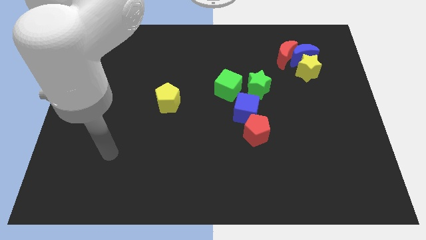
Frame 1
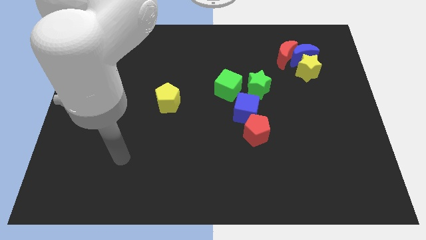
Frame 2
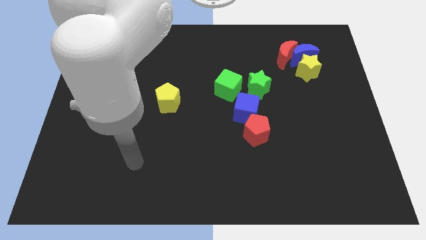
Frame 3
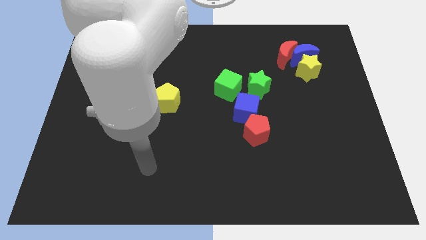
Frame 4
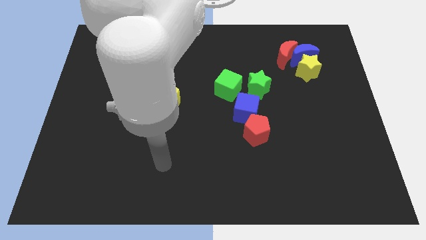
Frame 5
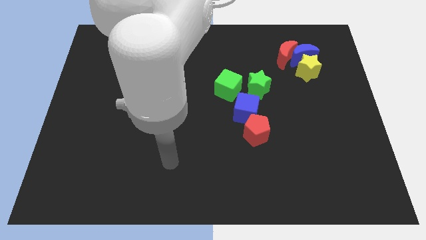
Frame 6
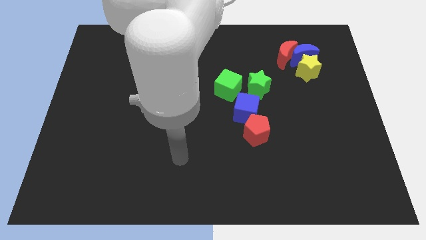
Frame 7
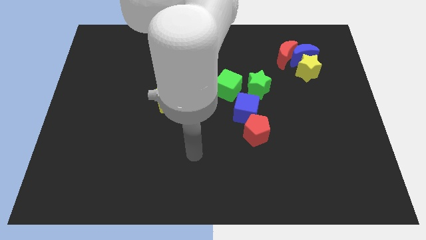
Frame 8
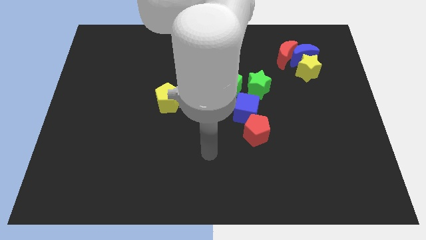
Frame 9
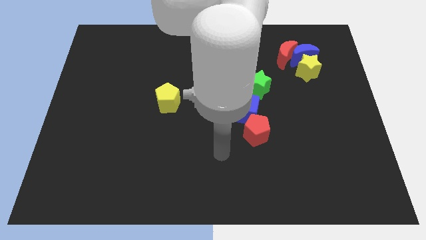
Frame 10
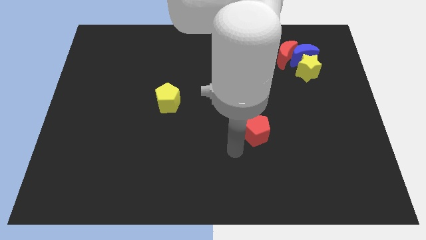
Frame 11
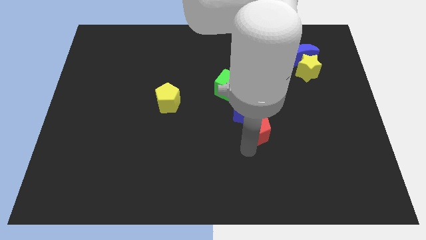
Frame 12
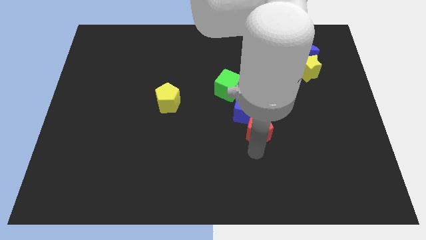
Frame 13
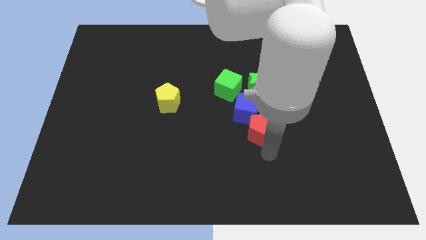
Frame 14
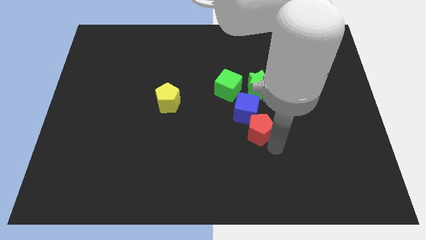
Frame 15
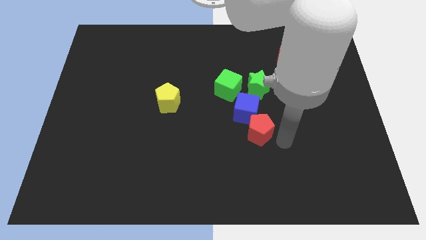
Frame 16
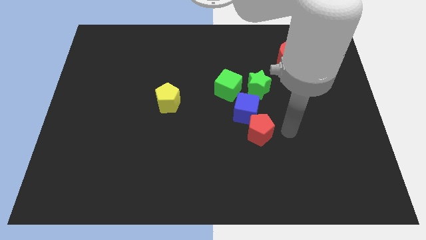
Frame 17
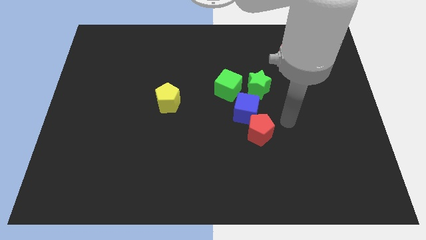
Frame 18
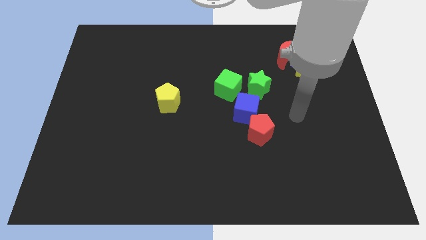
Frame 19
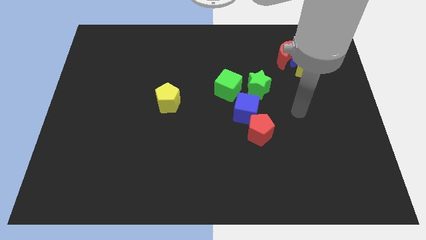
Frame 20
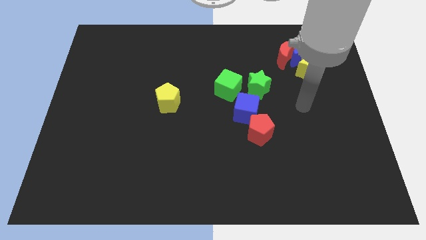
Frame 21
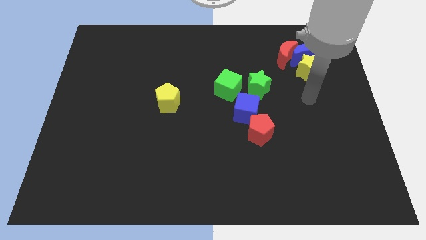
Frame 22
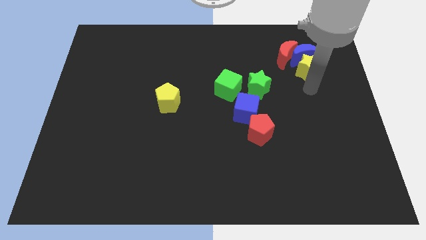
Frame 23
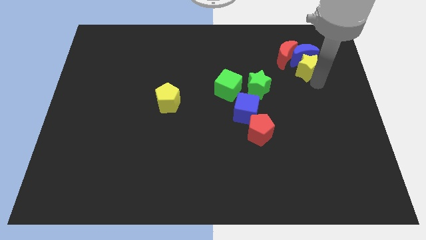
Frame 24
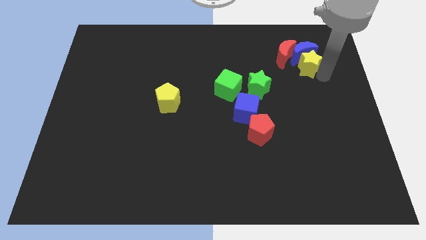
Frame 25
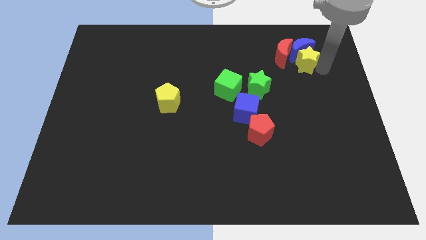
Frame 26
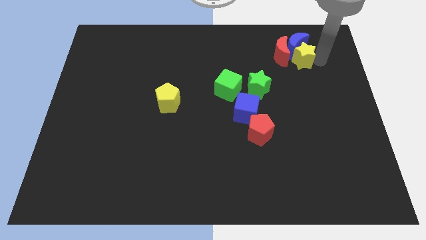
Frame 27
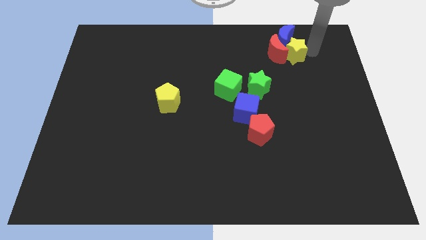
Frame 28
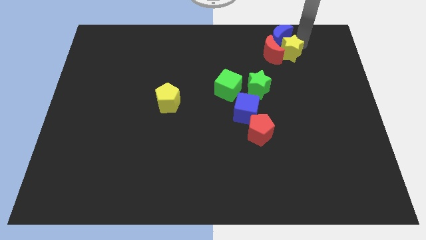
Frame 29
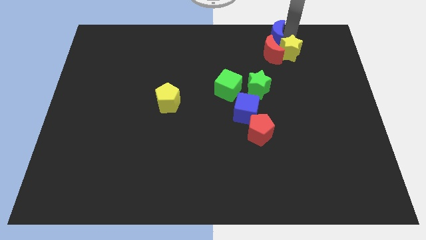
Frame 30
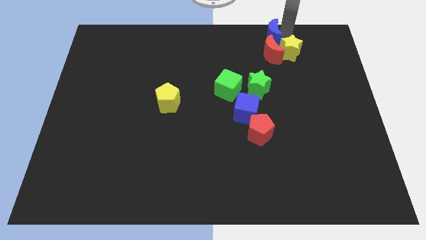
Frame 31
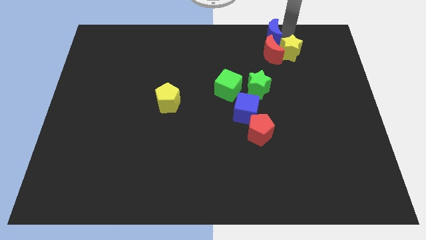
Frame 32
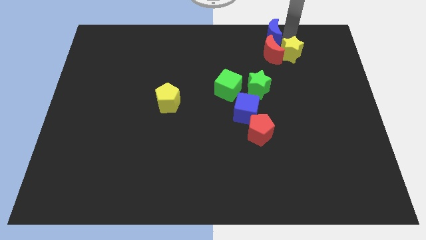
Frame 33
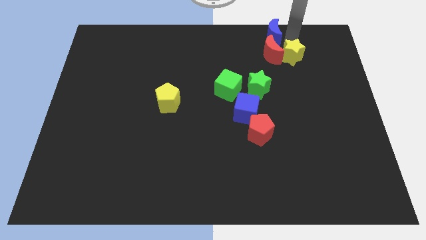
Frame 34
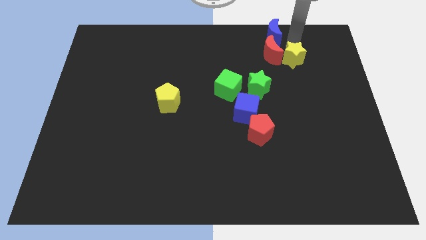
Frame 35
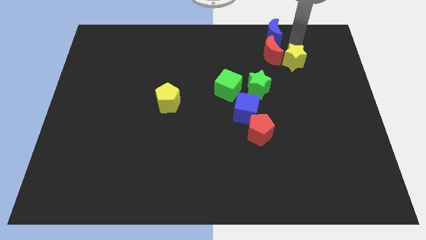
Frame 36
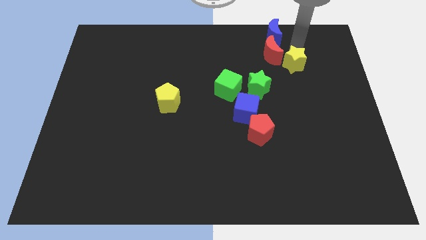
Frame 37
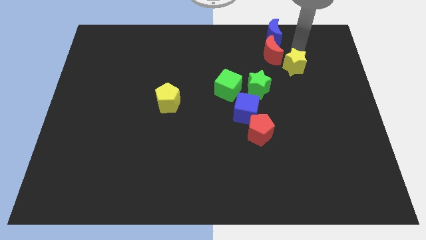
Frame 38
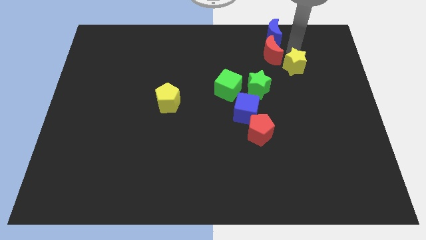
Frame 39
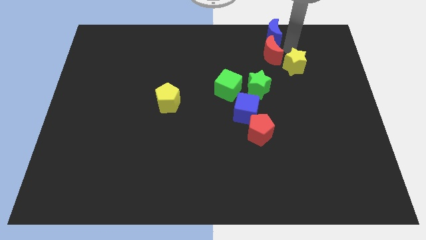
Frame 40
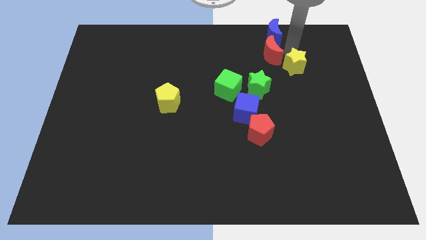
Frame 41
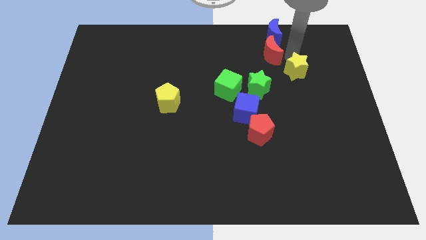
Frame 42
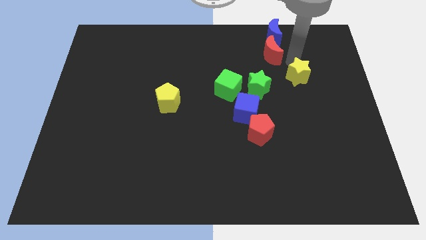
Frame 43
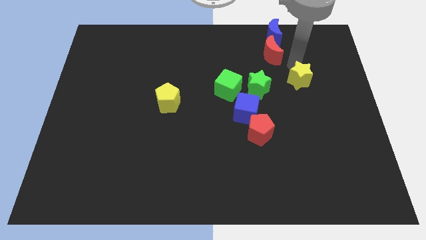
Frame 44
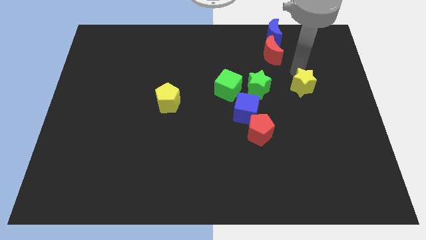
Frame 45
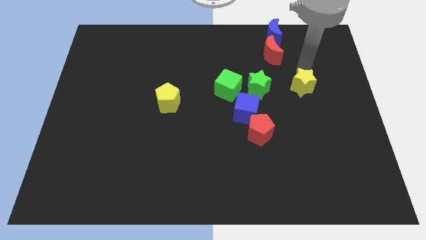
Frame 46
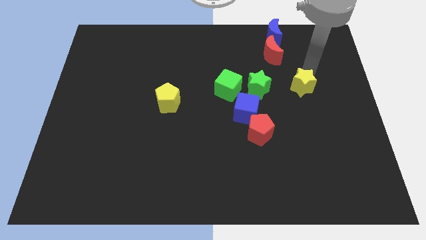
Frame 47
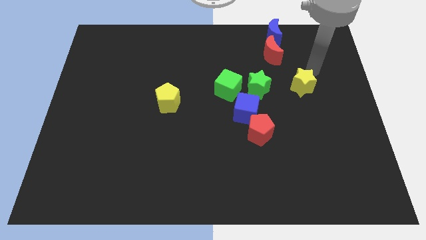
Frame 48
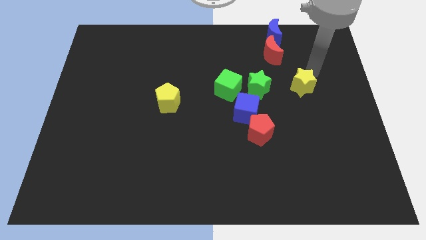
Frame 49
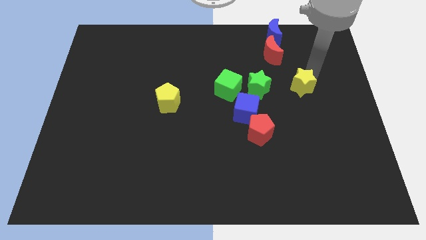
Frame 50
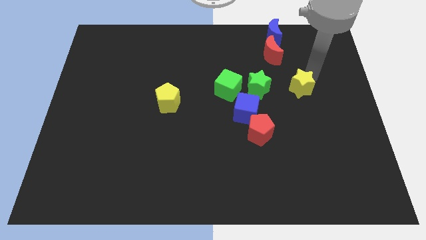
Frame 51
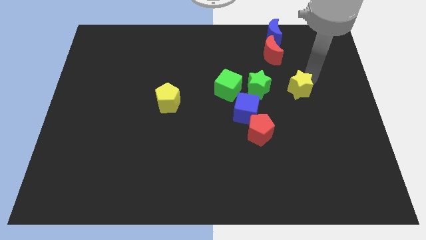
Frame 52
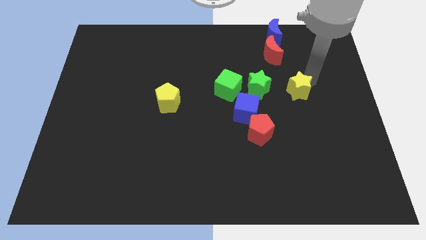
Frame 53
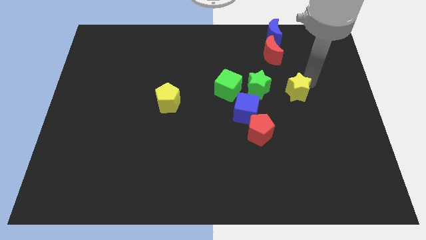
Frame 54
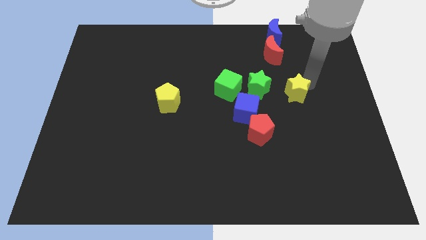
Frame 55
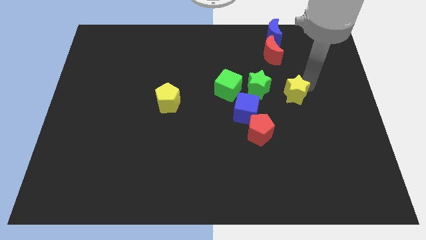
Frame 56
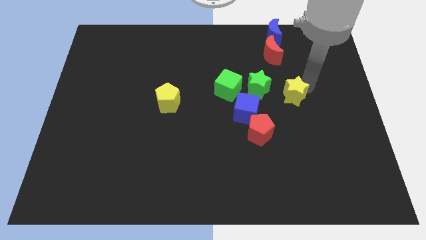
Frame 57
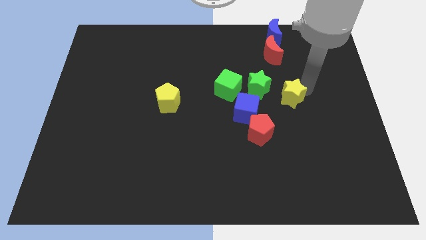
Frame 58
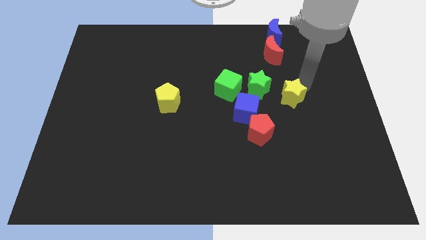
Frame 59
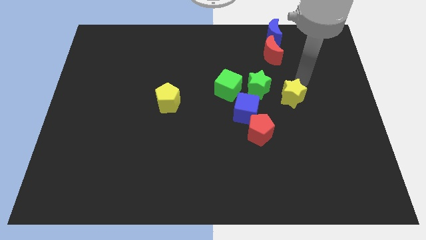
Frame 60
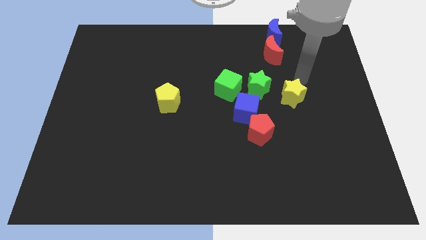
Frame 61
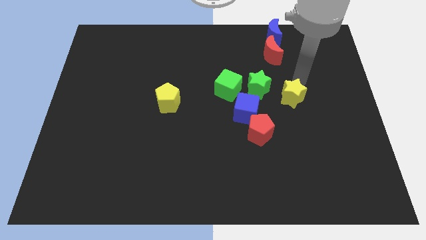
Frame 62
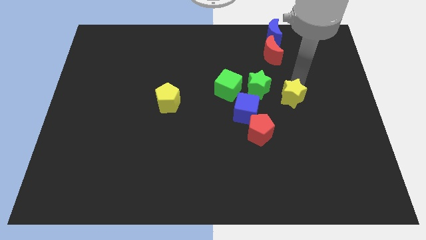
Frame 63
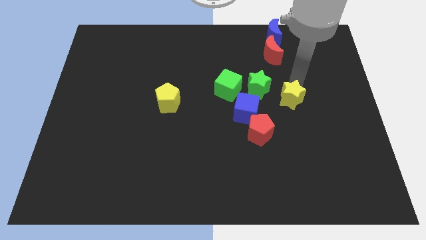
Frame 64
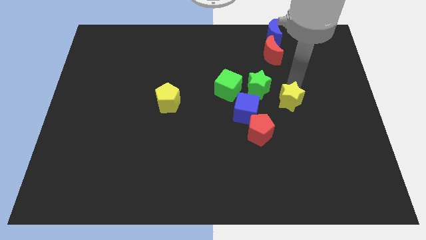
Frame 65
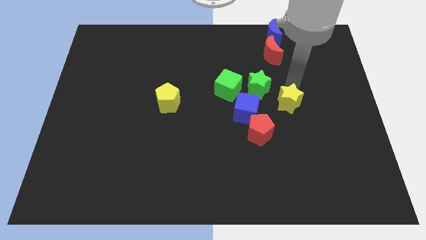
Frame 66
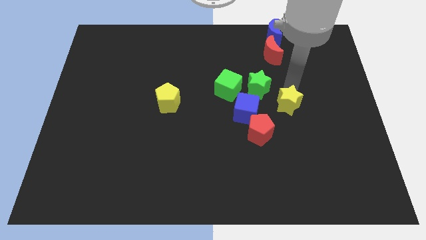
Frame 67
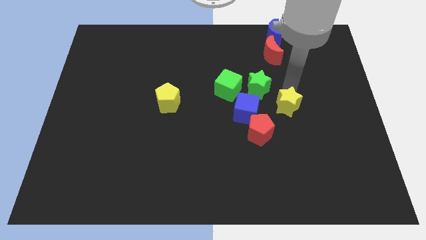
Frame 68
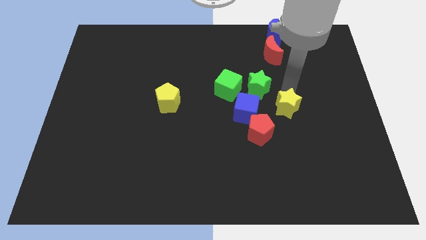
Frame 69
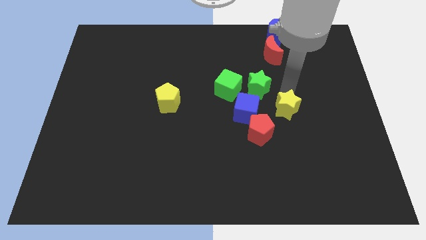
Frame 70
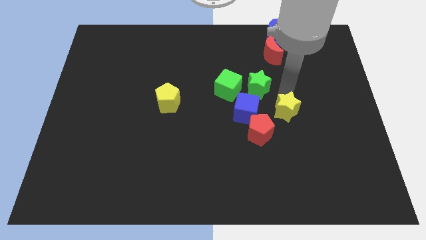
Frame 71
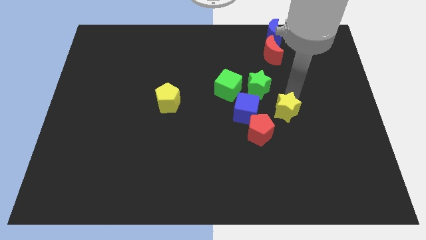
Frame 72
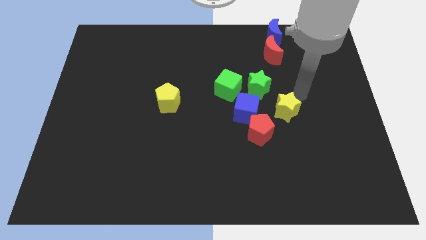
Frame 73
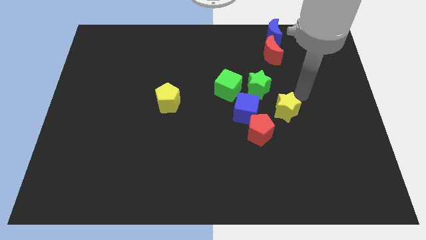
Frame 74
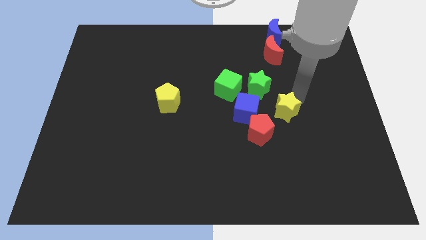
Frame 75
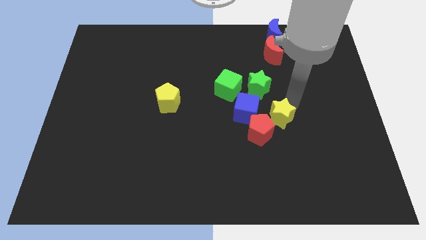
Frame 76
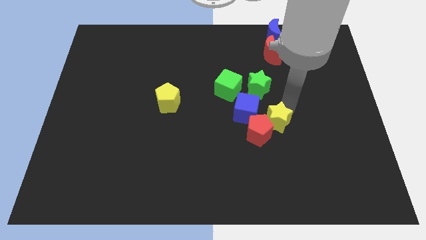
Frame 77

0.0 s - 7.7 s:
put the yellow star next to the red pentagon

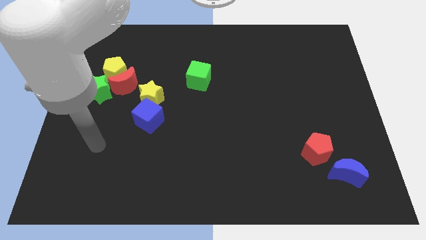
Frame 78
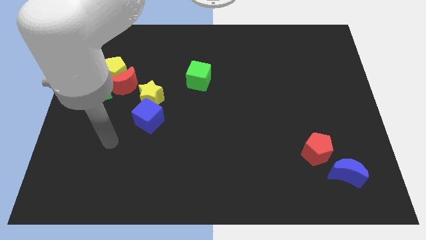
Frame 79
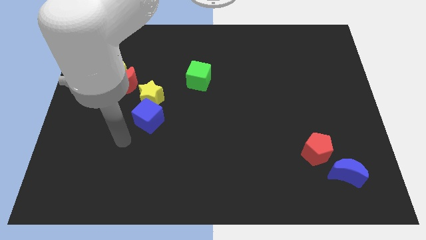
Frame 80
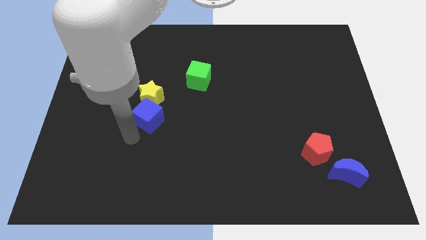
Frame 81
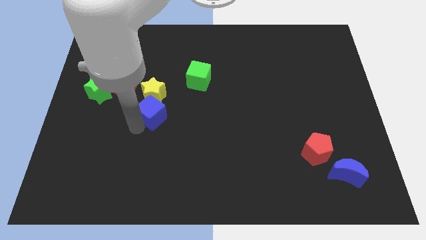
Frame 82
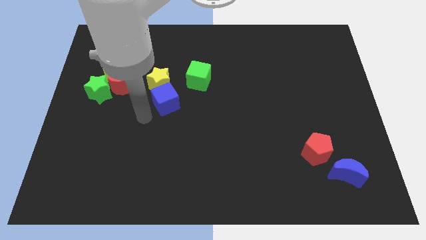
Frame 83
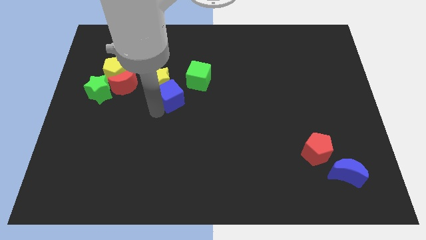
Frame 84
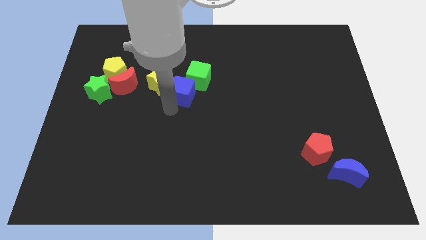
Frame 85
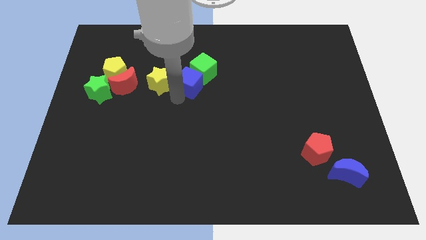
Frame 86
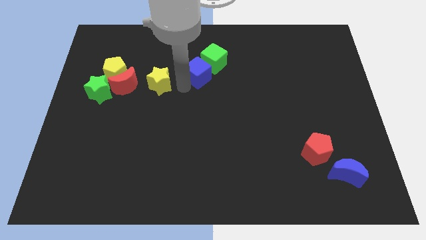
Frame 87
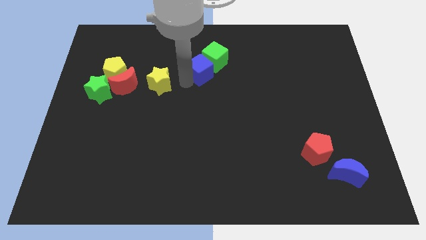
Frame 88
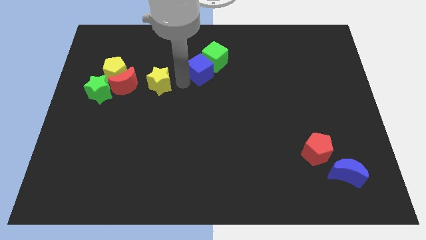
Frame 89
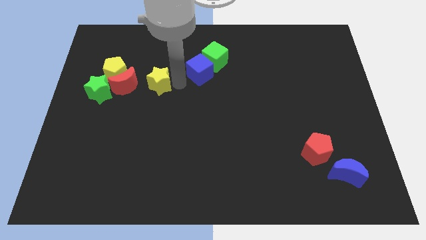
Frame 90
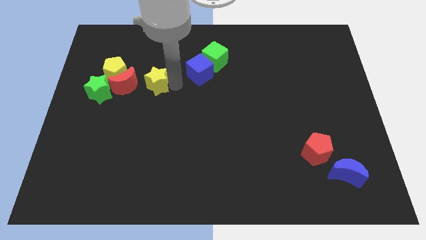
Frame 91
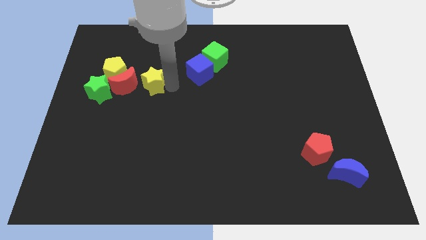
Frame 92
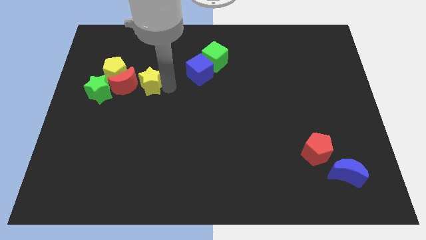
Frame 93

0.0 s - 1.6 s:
slide the yellow star close to the red moon
